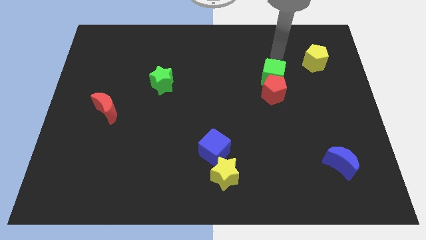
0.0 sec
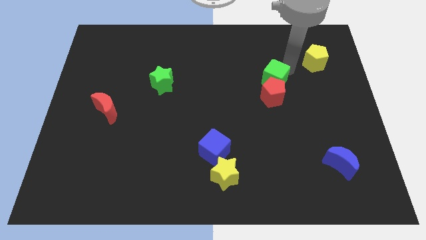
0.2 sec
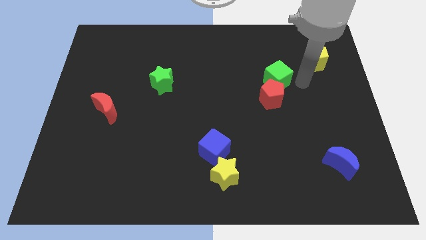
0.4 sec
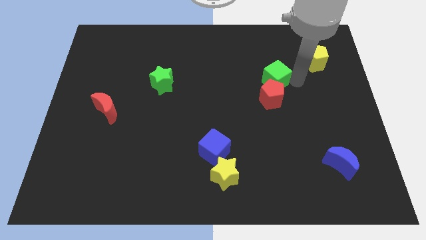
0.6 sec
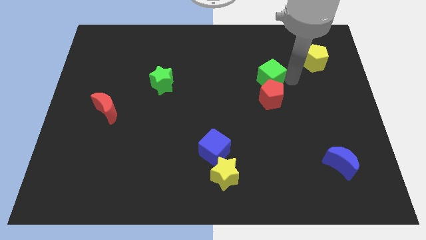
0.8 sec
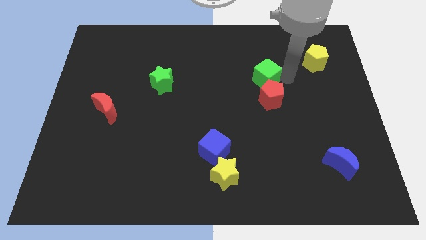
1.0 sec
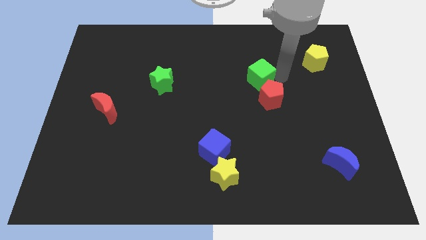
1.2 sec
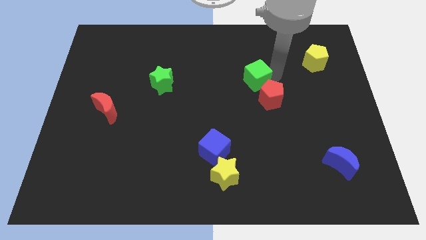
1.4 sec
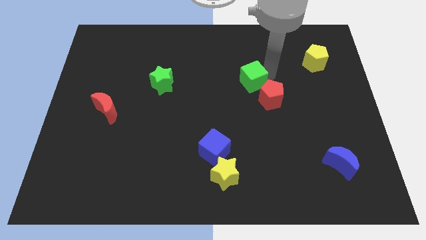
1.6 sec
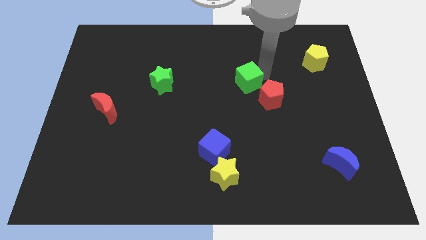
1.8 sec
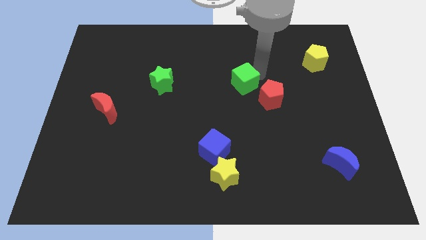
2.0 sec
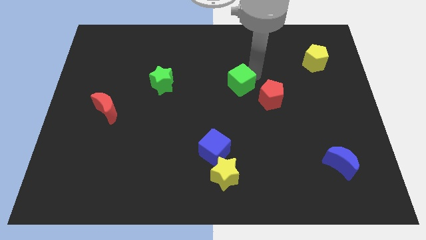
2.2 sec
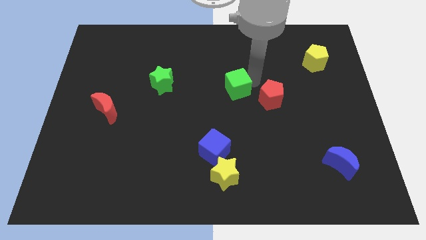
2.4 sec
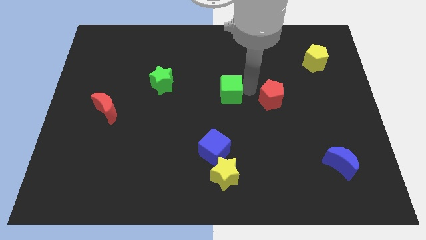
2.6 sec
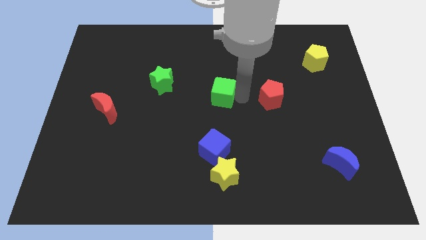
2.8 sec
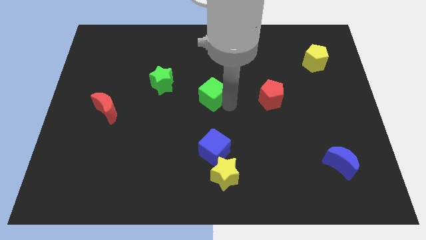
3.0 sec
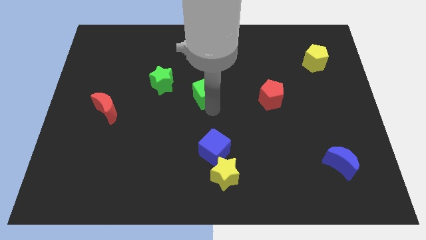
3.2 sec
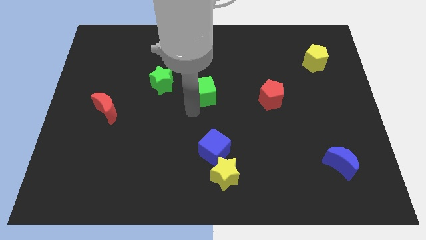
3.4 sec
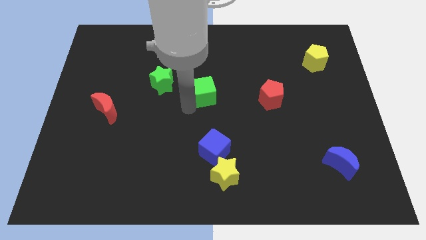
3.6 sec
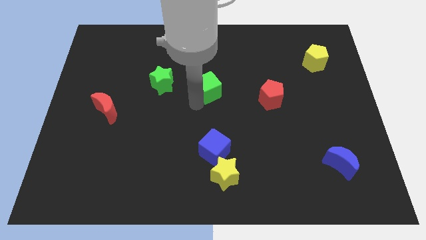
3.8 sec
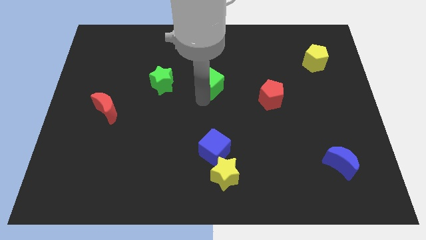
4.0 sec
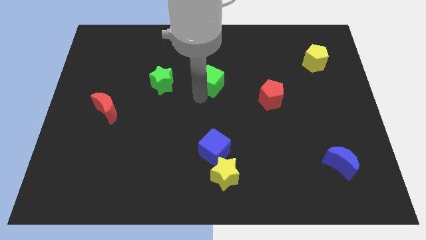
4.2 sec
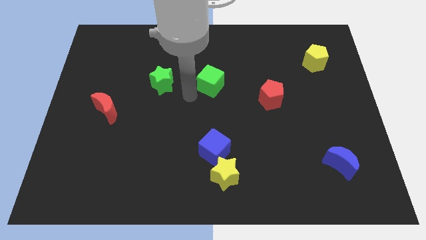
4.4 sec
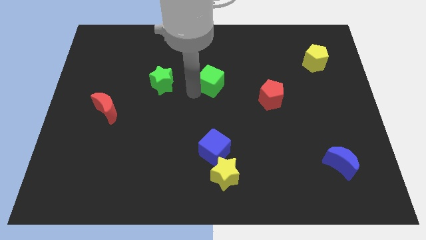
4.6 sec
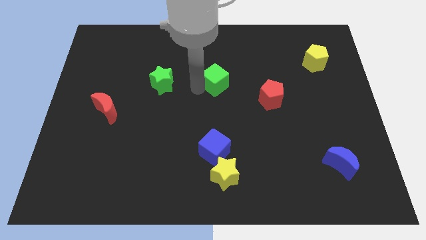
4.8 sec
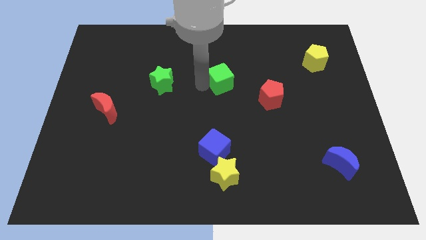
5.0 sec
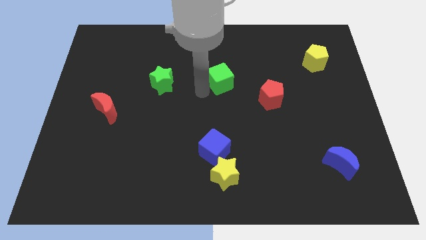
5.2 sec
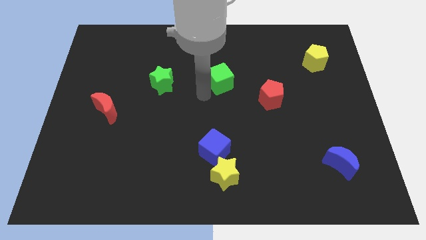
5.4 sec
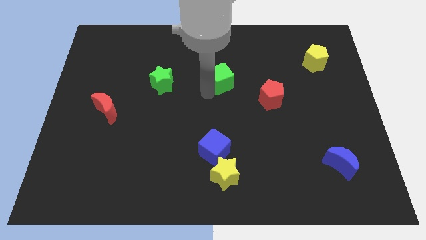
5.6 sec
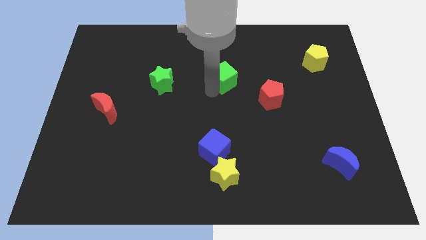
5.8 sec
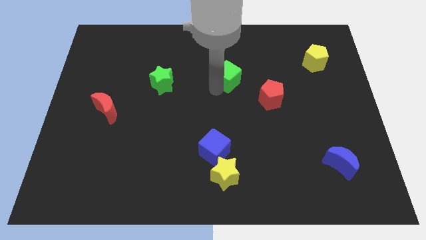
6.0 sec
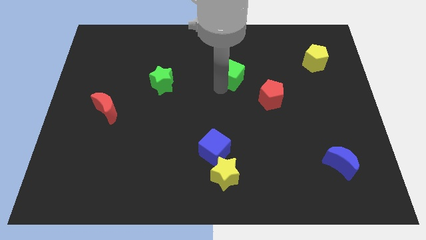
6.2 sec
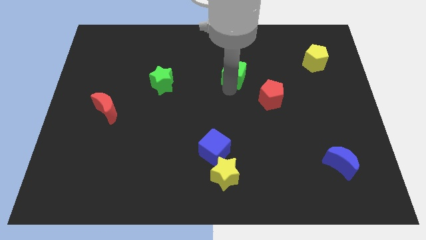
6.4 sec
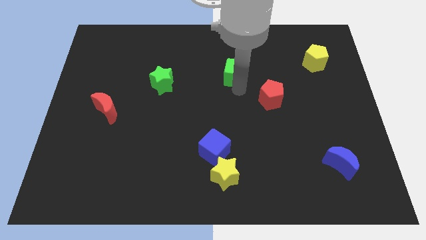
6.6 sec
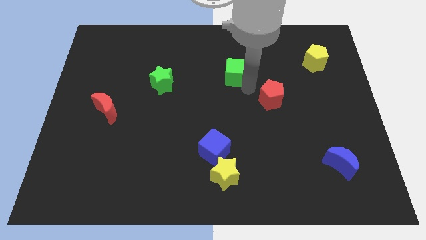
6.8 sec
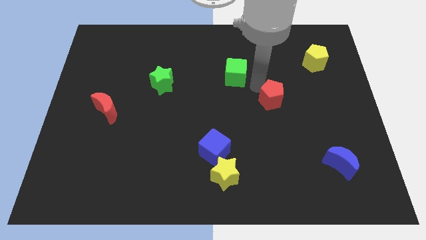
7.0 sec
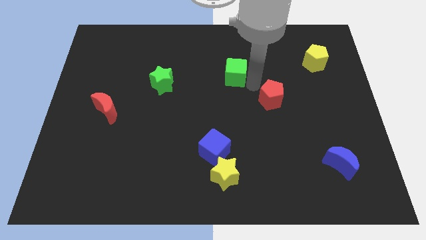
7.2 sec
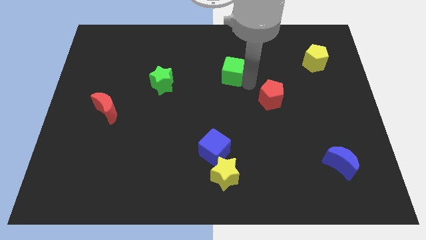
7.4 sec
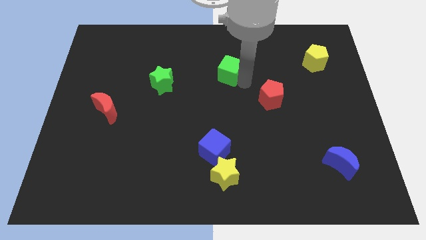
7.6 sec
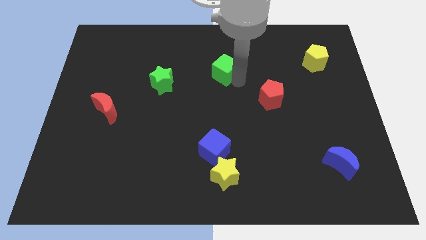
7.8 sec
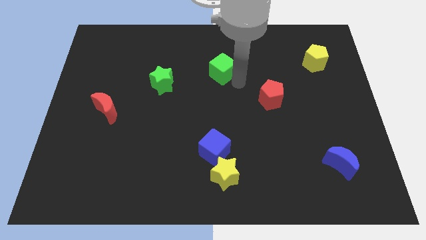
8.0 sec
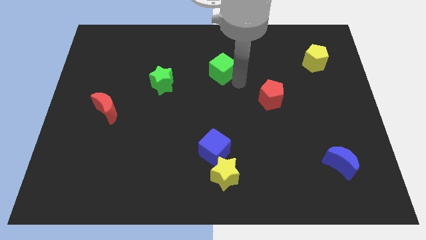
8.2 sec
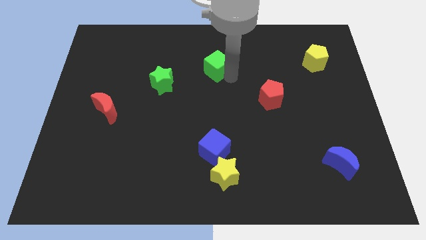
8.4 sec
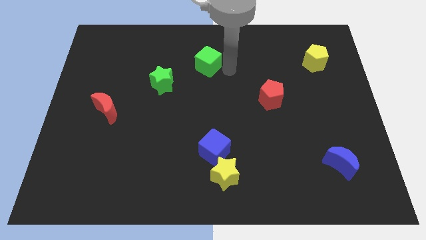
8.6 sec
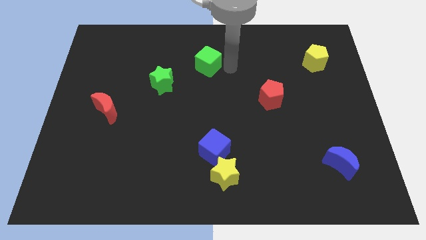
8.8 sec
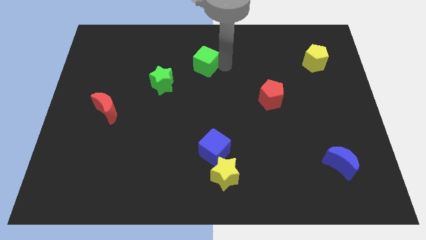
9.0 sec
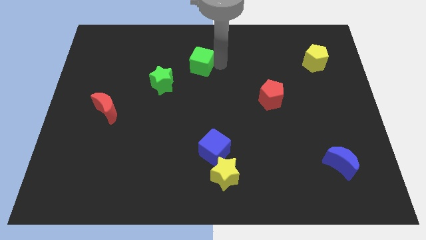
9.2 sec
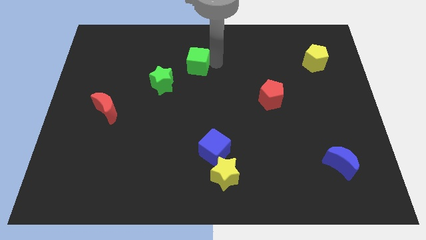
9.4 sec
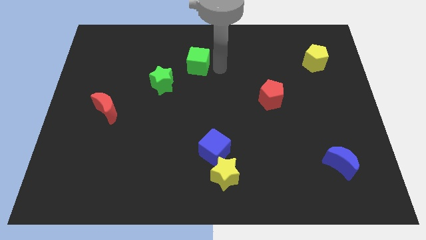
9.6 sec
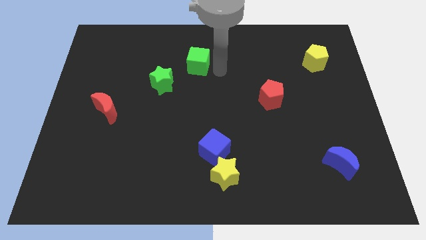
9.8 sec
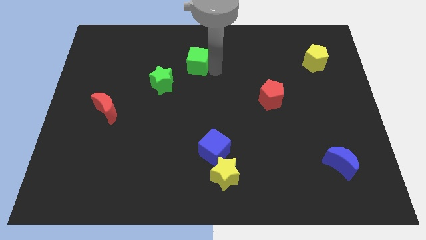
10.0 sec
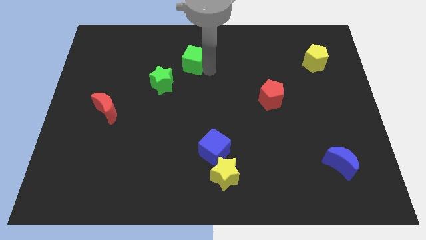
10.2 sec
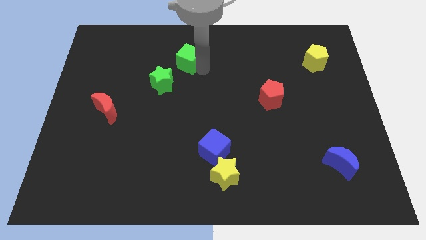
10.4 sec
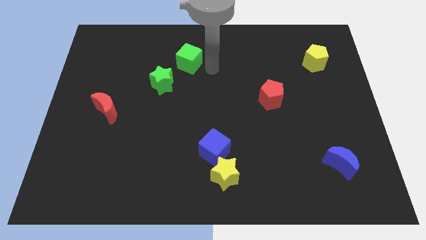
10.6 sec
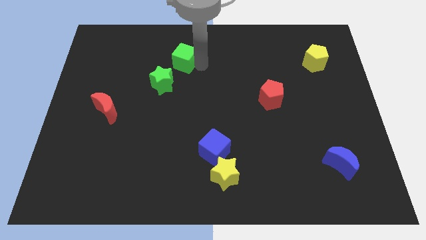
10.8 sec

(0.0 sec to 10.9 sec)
slide the green cube to the top of the green star
